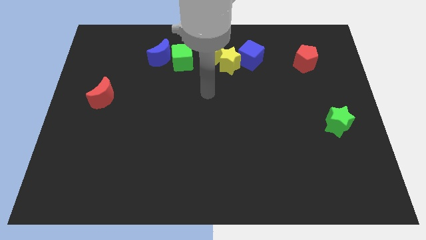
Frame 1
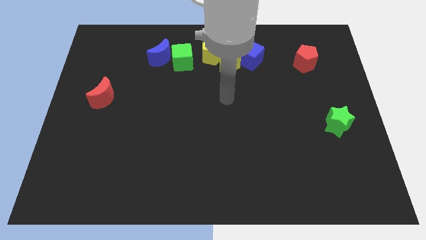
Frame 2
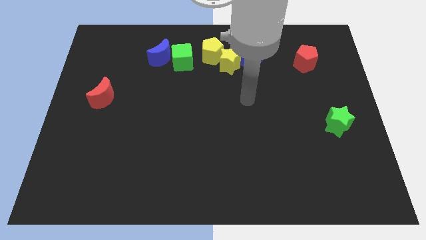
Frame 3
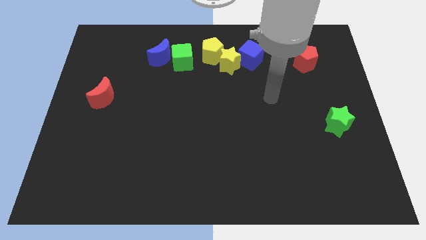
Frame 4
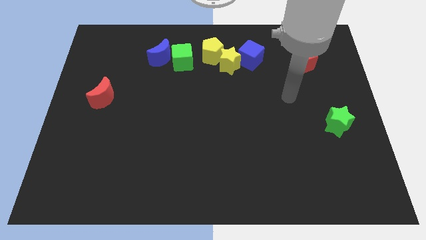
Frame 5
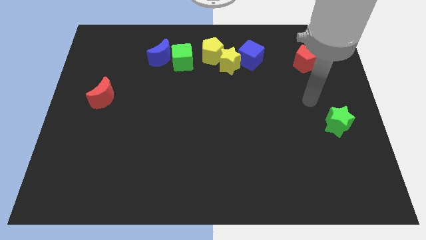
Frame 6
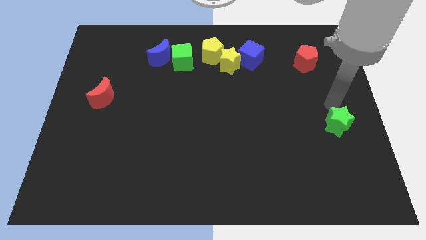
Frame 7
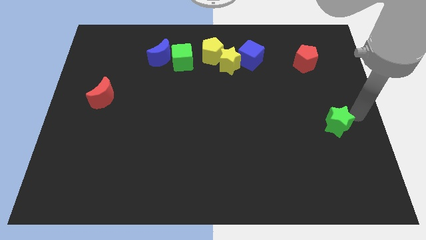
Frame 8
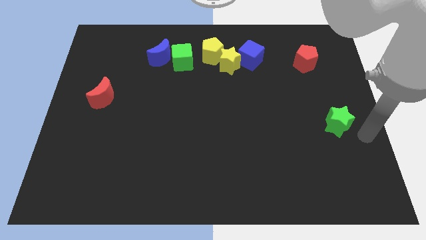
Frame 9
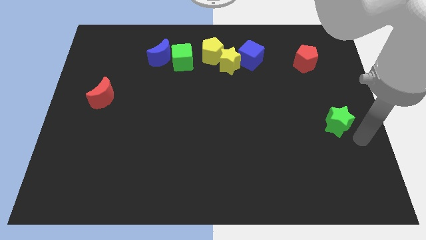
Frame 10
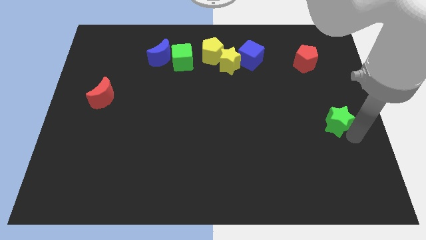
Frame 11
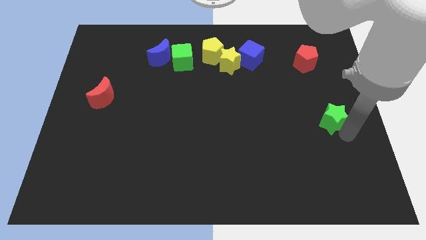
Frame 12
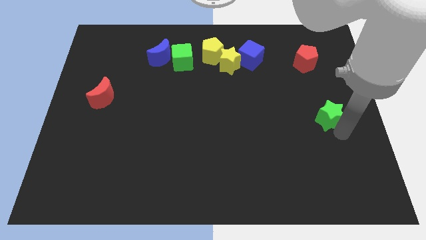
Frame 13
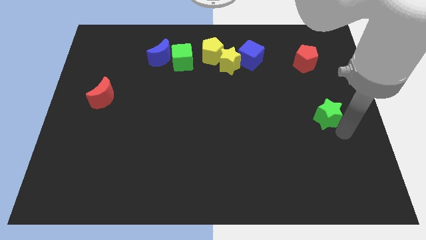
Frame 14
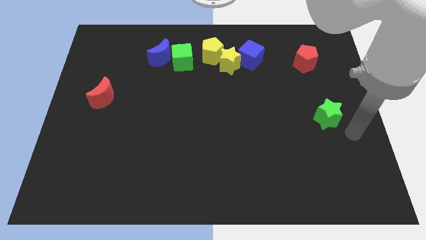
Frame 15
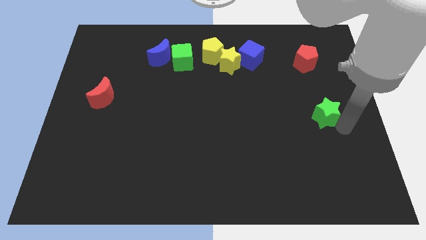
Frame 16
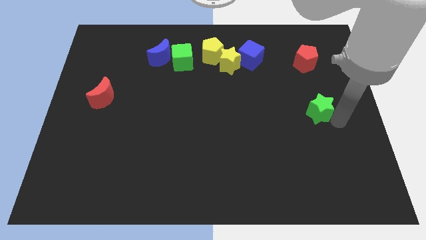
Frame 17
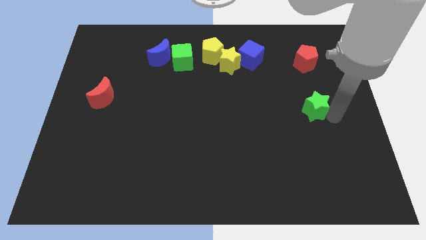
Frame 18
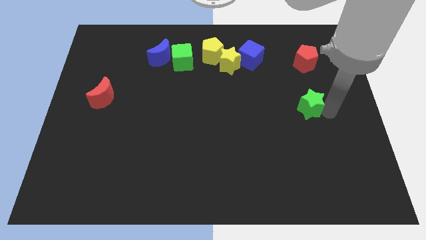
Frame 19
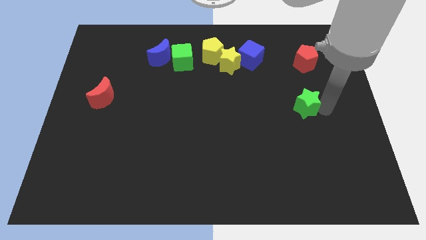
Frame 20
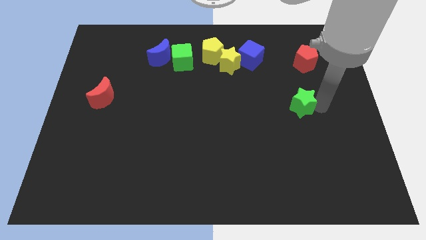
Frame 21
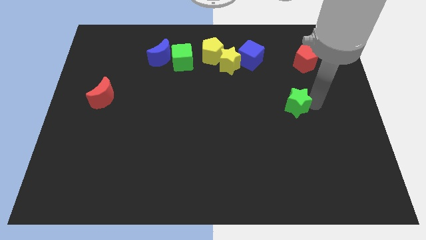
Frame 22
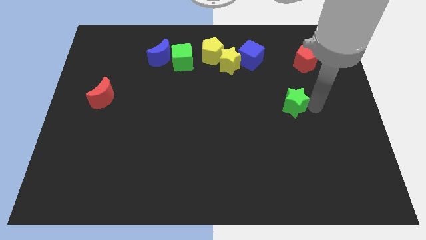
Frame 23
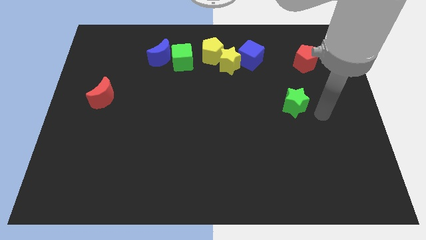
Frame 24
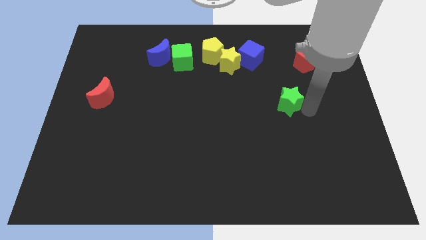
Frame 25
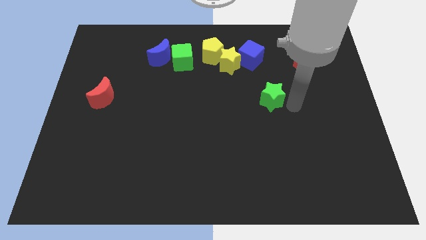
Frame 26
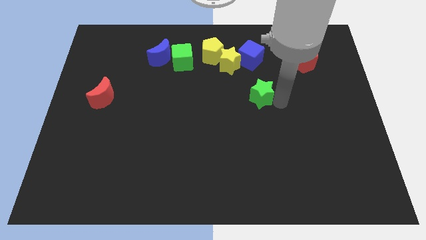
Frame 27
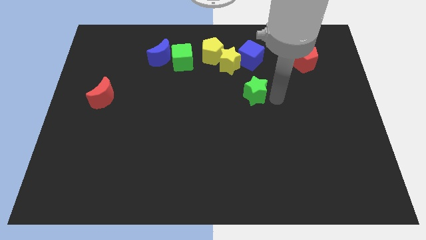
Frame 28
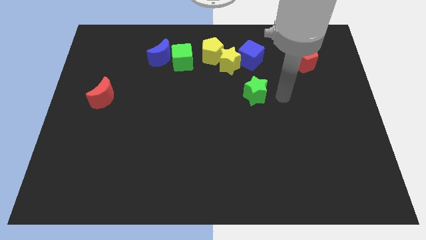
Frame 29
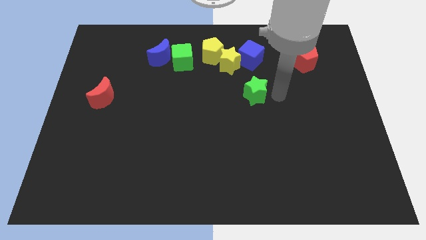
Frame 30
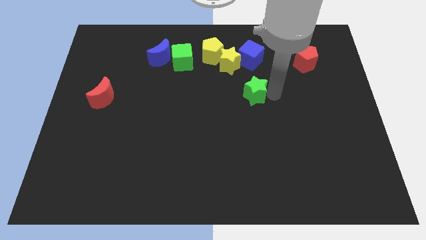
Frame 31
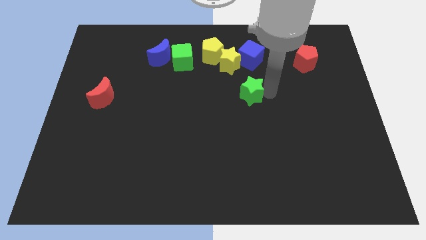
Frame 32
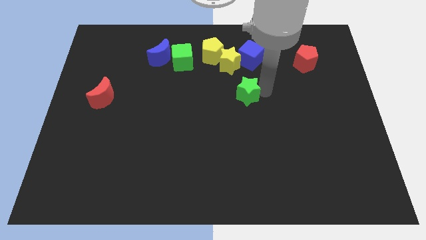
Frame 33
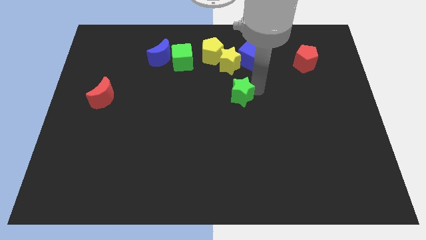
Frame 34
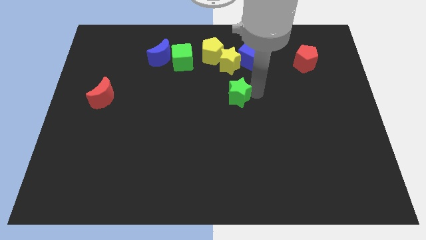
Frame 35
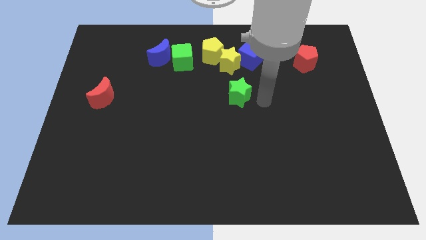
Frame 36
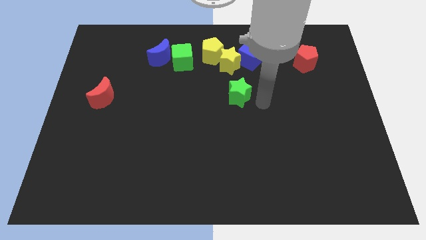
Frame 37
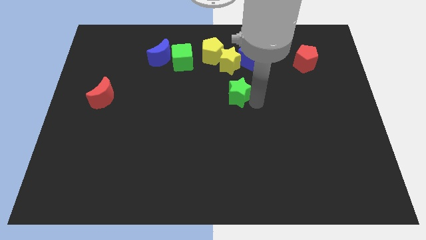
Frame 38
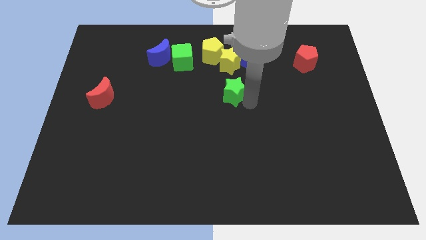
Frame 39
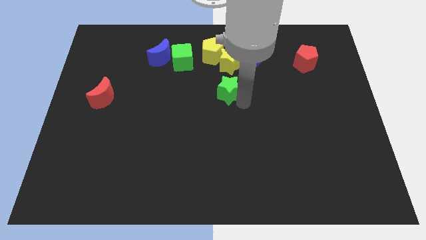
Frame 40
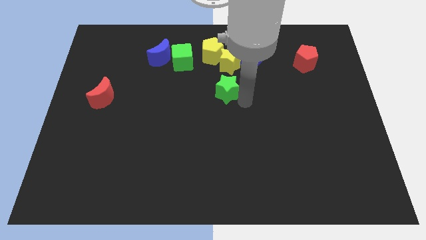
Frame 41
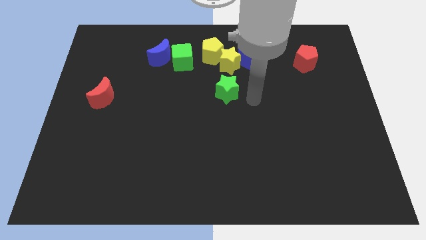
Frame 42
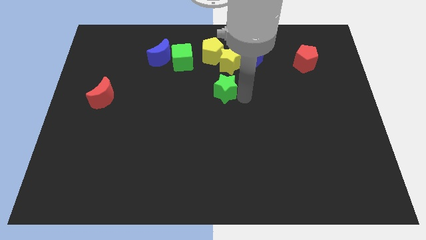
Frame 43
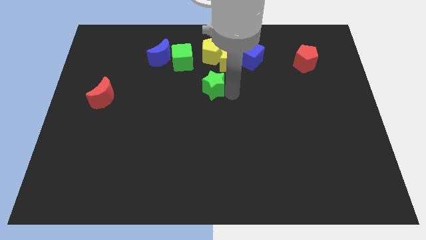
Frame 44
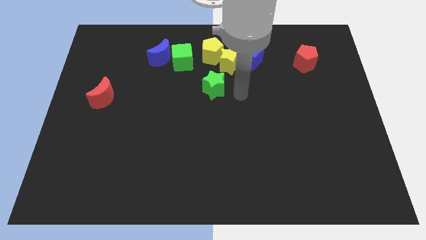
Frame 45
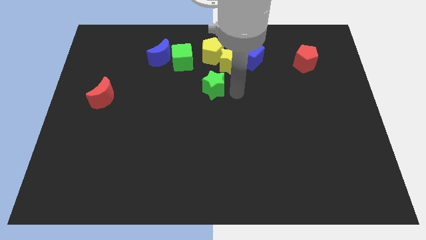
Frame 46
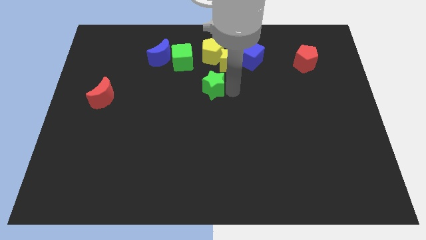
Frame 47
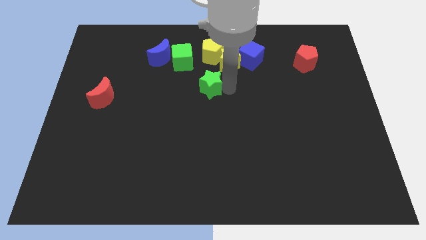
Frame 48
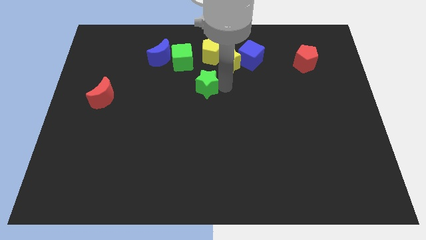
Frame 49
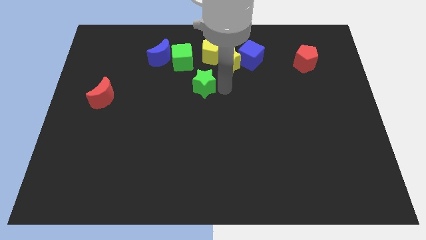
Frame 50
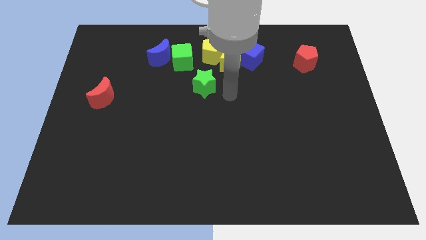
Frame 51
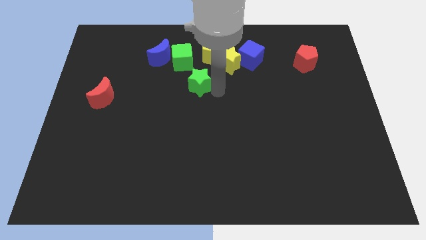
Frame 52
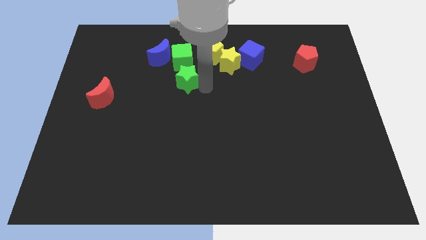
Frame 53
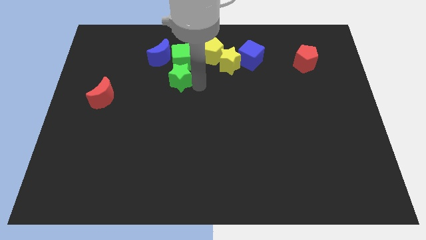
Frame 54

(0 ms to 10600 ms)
slide the green star diagonally down and to the left of the green cube

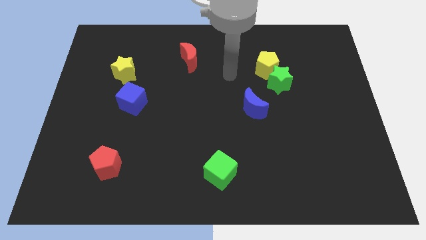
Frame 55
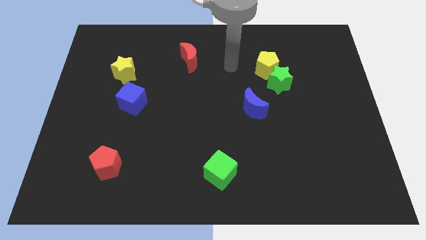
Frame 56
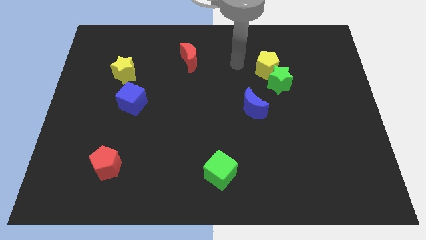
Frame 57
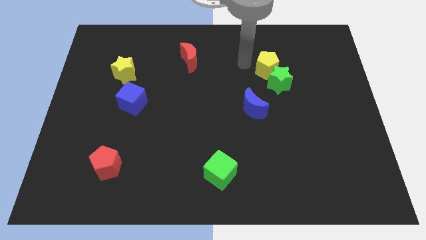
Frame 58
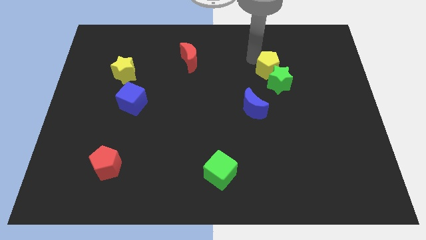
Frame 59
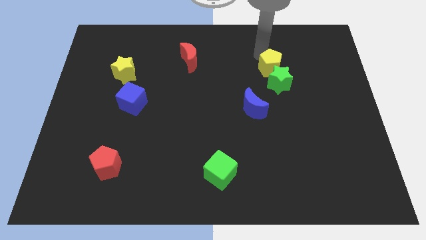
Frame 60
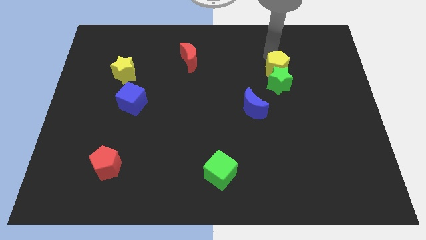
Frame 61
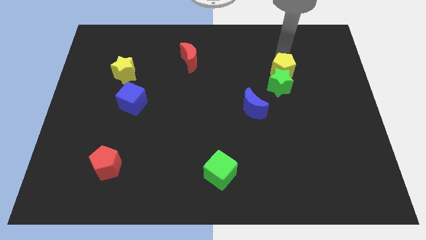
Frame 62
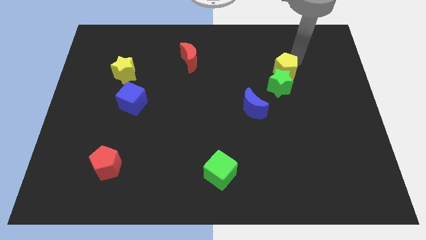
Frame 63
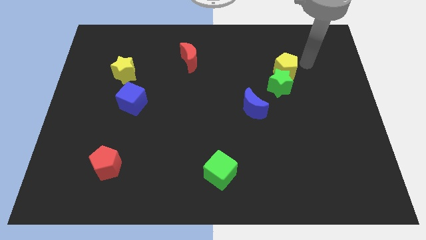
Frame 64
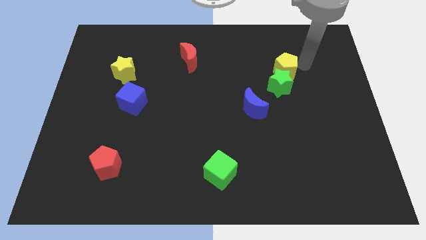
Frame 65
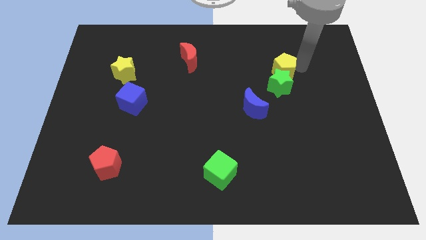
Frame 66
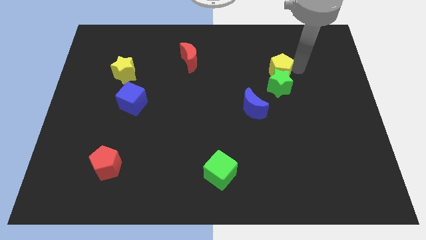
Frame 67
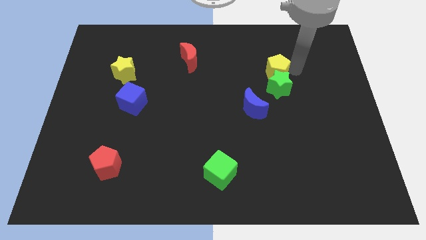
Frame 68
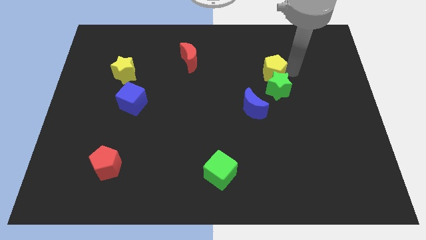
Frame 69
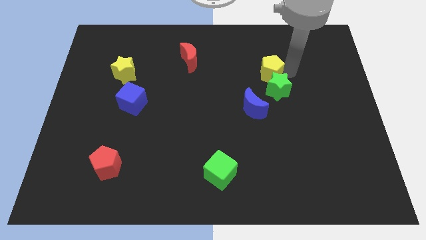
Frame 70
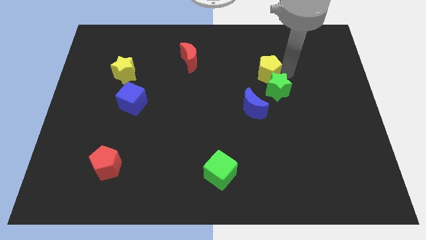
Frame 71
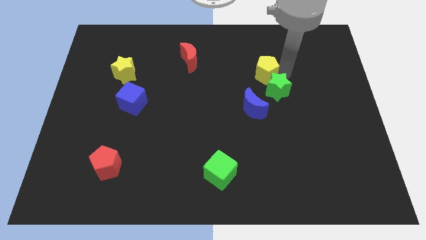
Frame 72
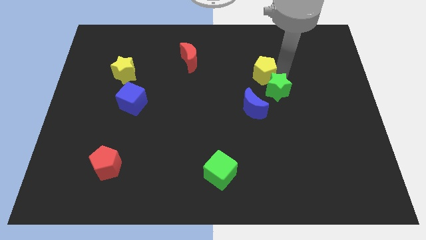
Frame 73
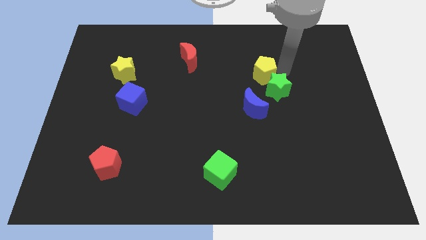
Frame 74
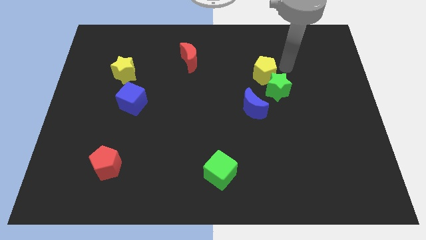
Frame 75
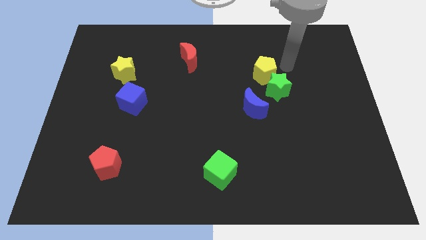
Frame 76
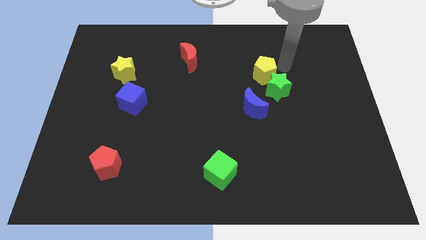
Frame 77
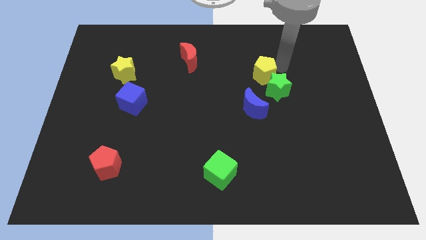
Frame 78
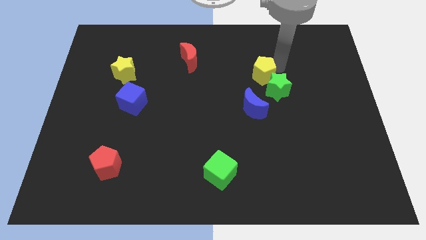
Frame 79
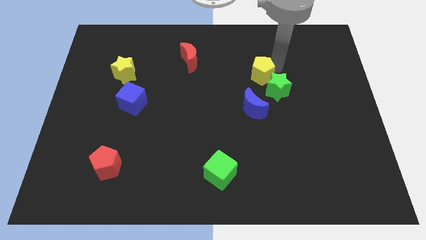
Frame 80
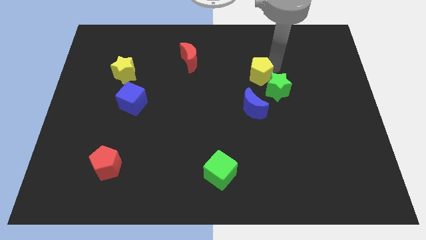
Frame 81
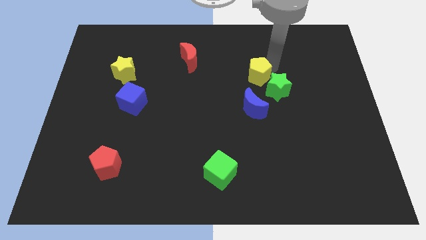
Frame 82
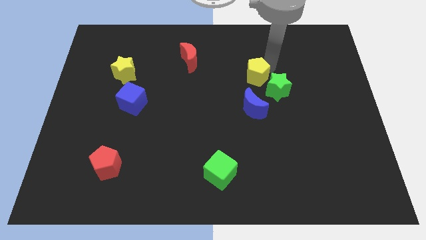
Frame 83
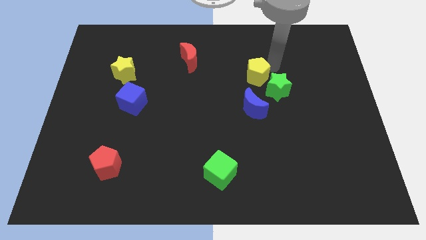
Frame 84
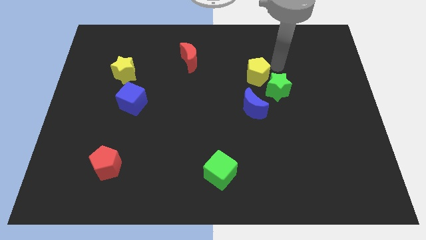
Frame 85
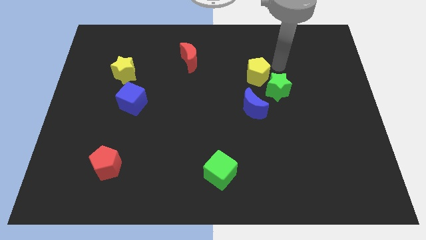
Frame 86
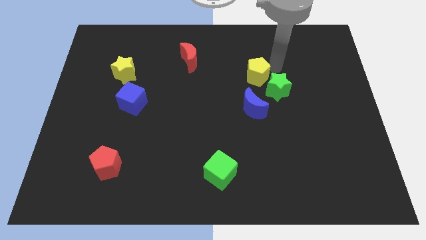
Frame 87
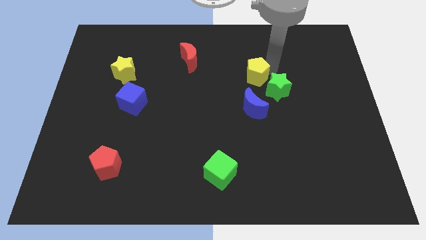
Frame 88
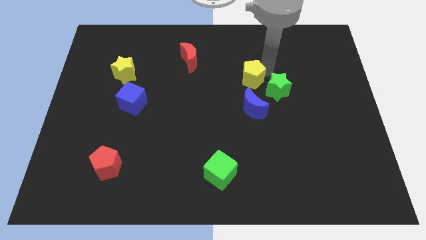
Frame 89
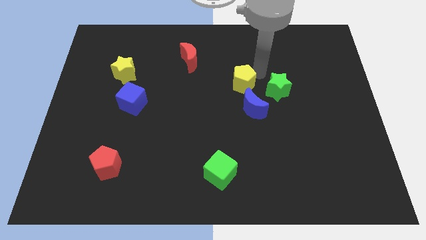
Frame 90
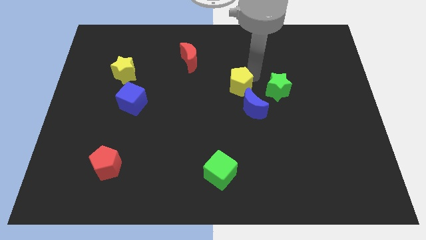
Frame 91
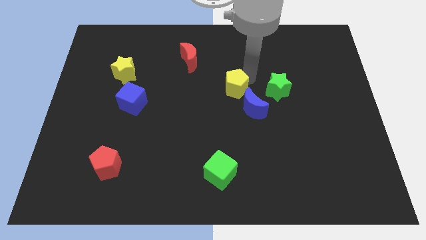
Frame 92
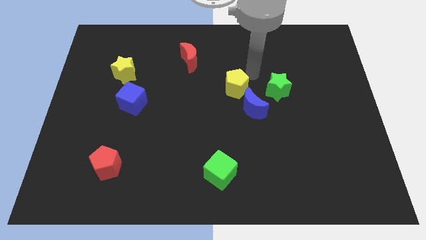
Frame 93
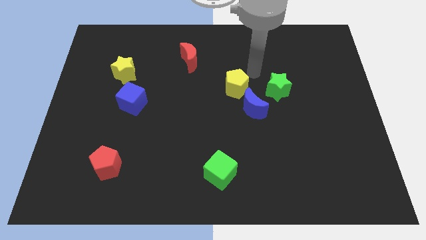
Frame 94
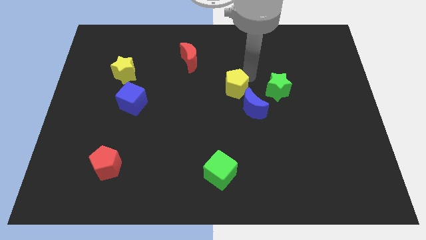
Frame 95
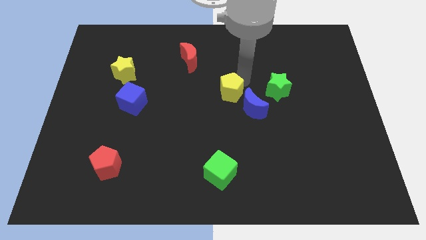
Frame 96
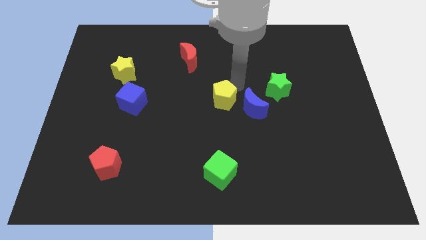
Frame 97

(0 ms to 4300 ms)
move the yellow pentagon to the left side of the blue moon
